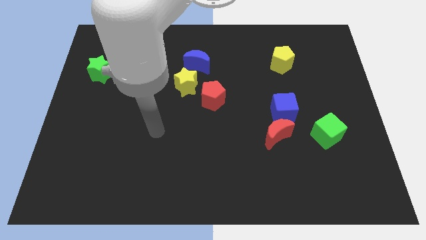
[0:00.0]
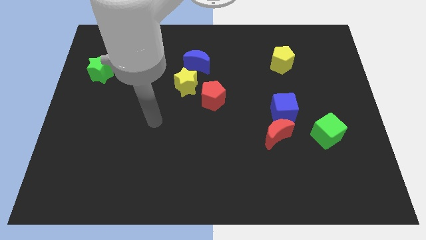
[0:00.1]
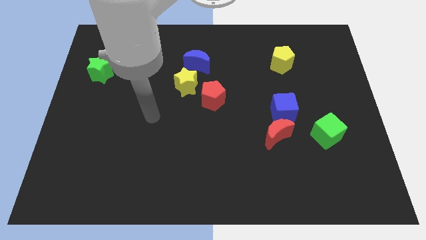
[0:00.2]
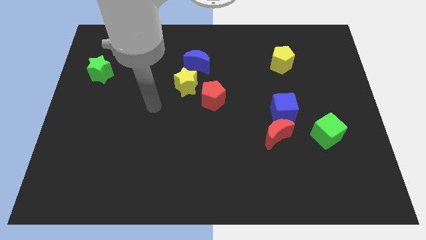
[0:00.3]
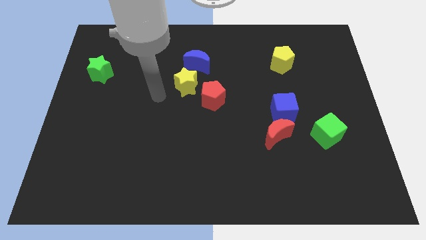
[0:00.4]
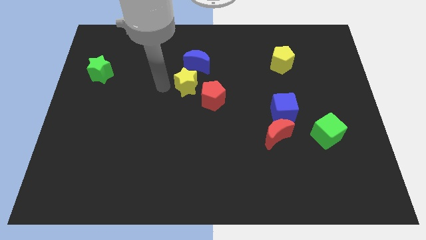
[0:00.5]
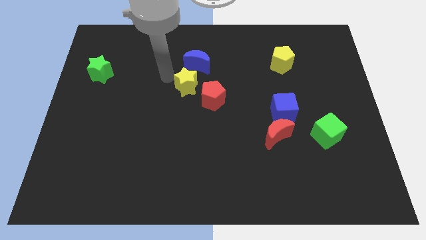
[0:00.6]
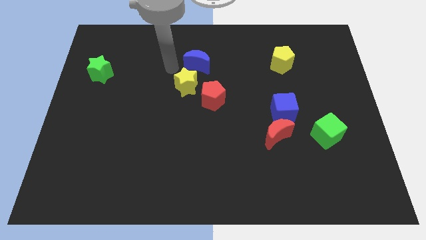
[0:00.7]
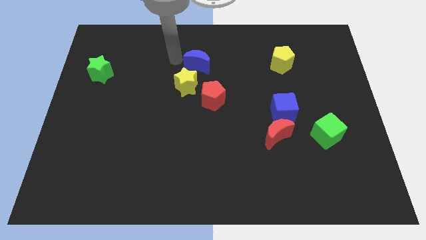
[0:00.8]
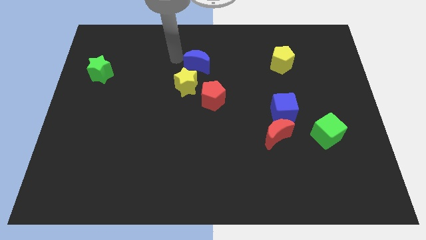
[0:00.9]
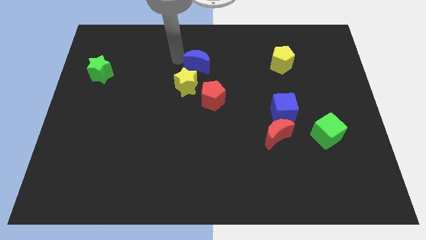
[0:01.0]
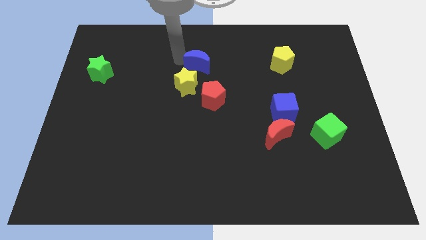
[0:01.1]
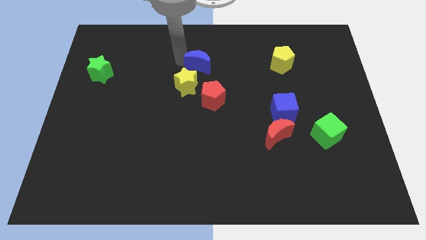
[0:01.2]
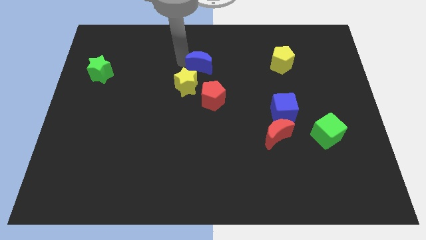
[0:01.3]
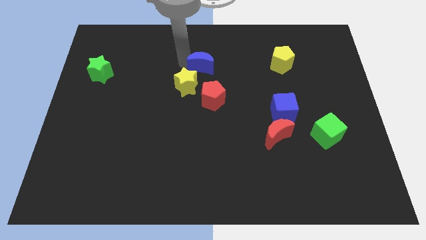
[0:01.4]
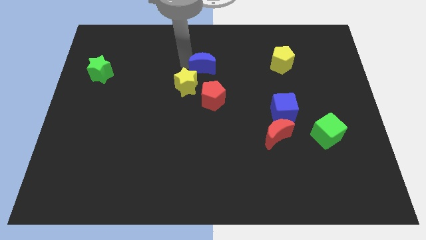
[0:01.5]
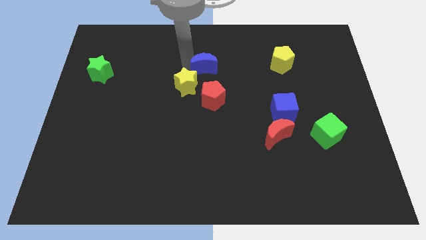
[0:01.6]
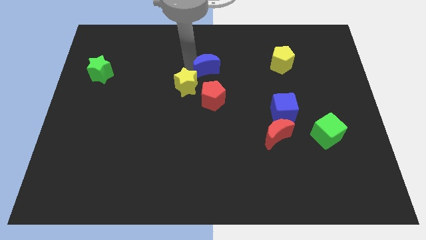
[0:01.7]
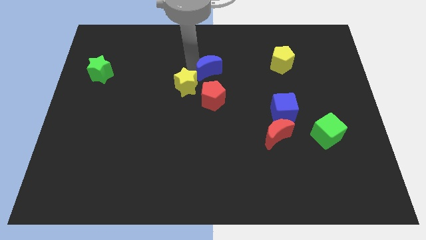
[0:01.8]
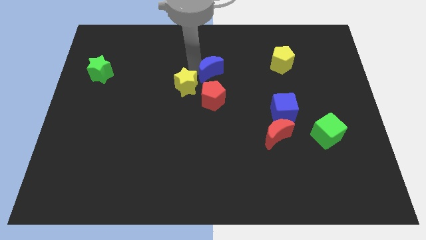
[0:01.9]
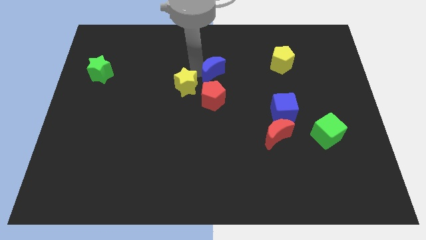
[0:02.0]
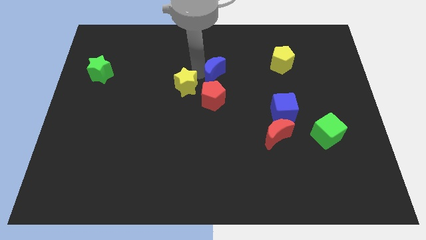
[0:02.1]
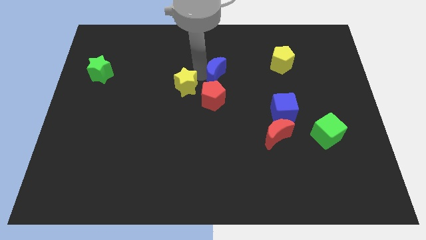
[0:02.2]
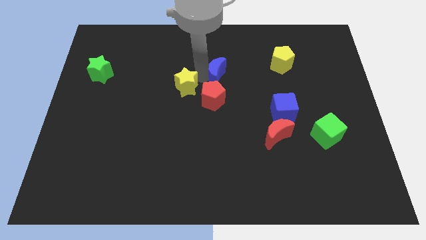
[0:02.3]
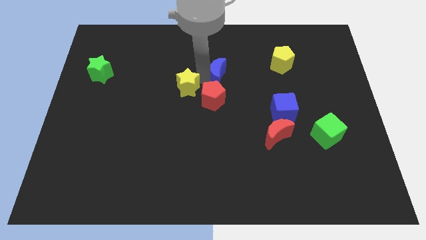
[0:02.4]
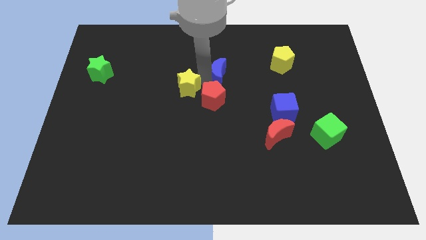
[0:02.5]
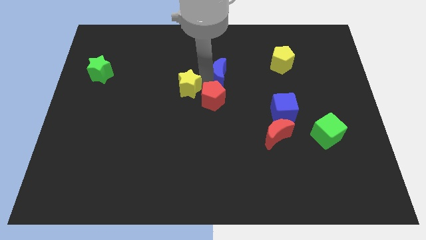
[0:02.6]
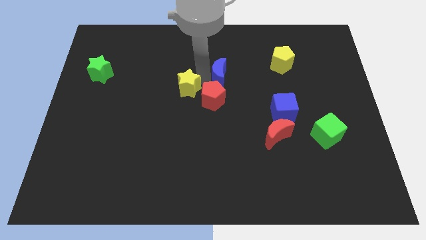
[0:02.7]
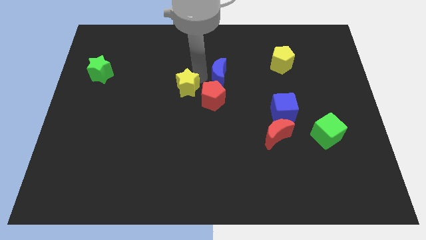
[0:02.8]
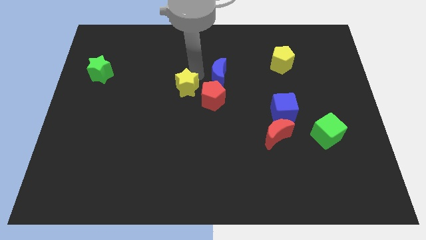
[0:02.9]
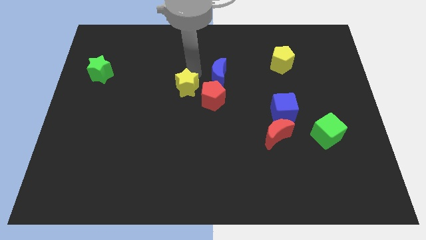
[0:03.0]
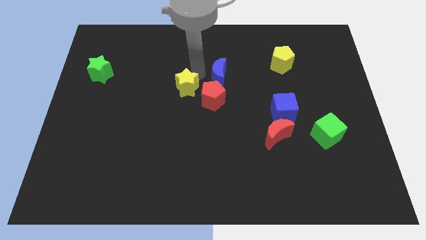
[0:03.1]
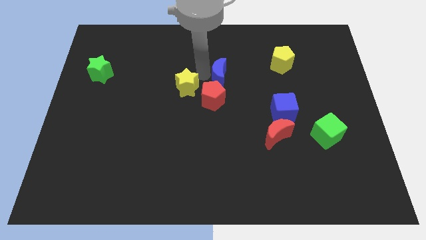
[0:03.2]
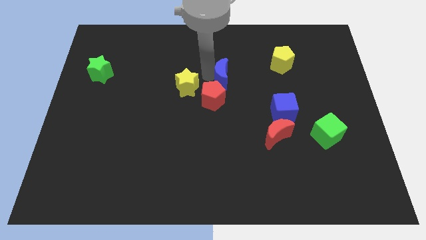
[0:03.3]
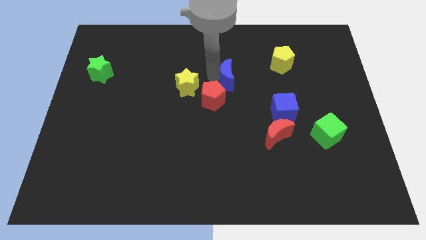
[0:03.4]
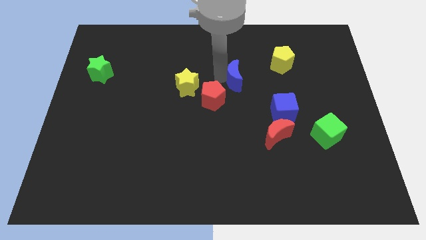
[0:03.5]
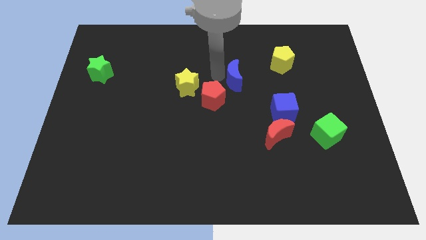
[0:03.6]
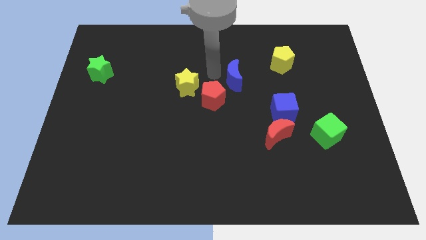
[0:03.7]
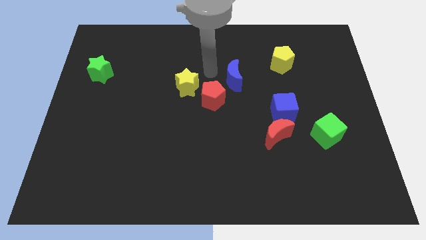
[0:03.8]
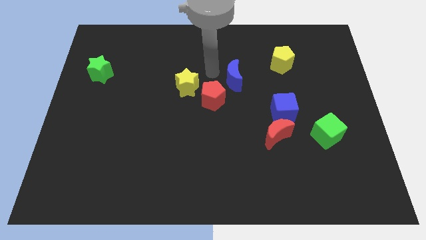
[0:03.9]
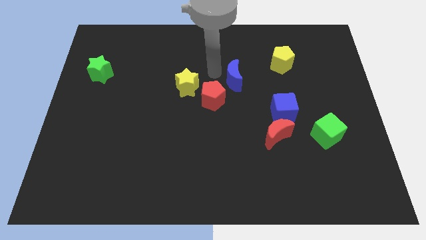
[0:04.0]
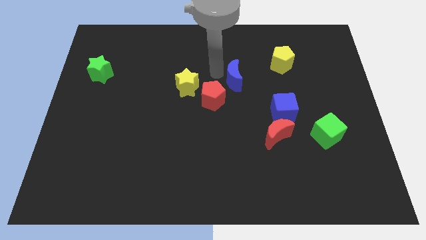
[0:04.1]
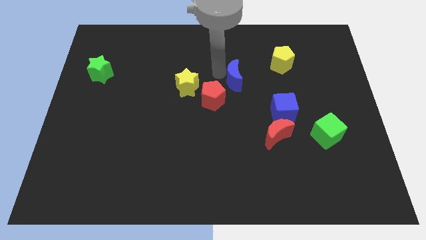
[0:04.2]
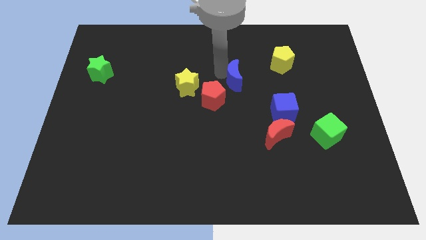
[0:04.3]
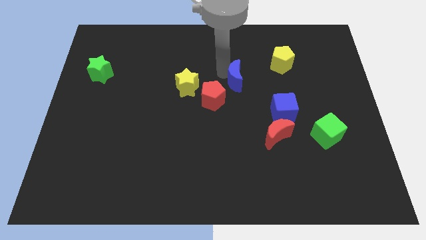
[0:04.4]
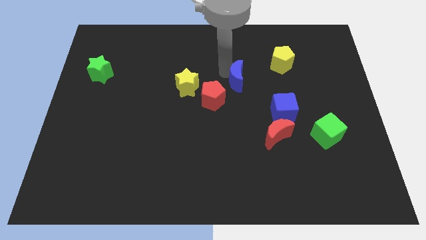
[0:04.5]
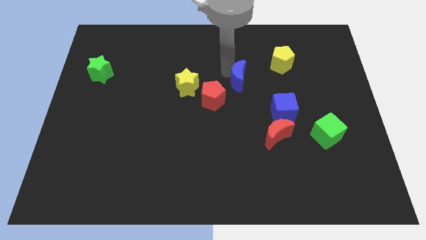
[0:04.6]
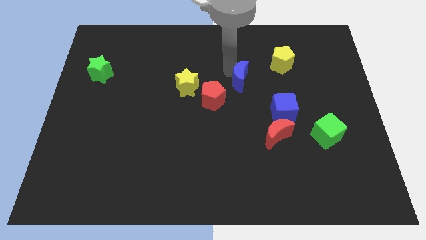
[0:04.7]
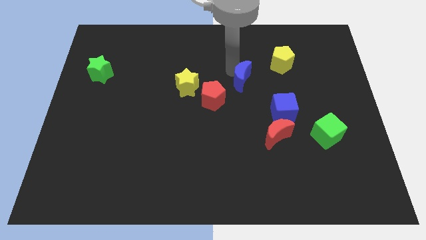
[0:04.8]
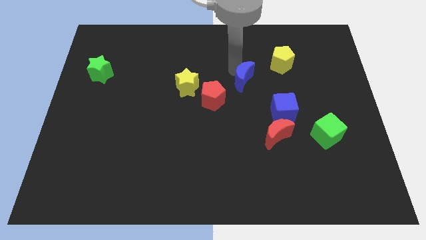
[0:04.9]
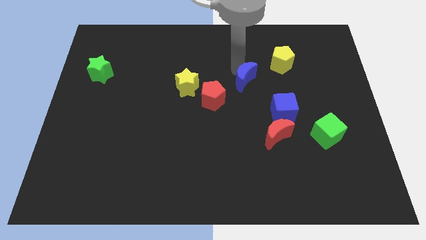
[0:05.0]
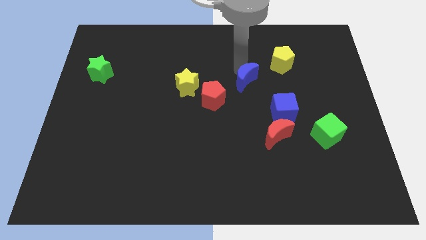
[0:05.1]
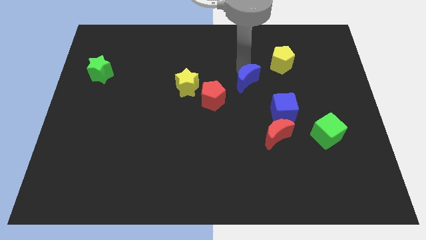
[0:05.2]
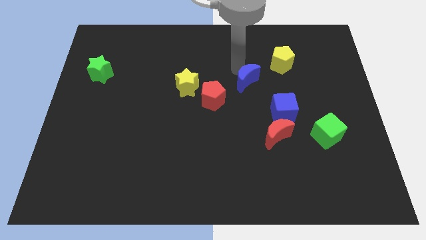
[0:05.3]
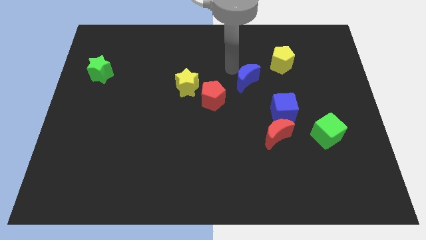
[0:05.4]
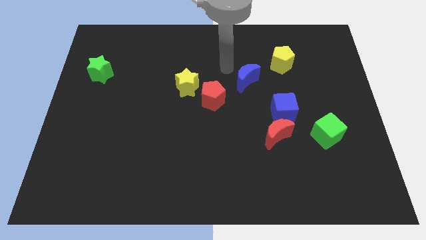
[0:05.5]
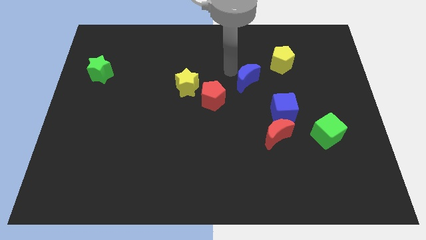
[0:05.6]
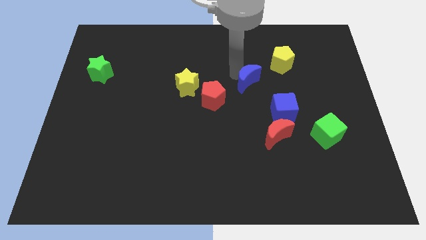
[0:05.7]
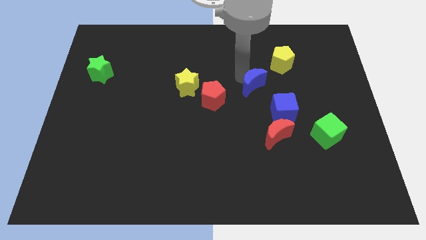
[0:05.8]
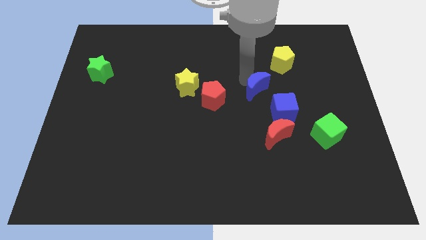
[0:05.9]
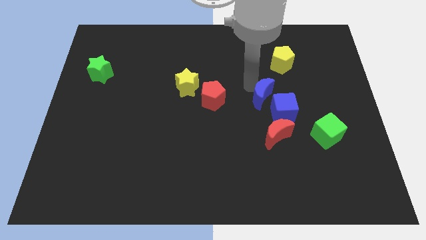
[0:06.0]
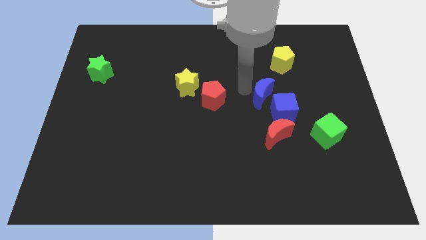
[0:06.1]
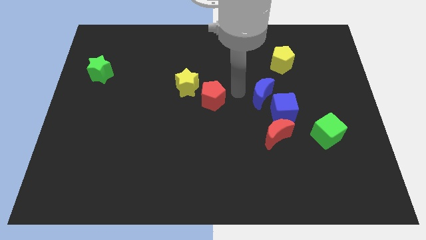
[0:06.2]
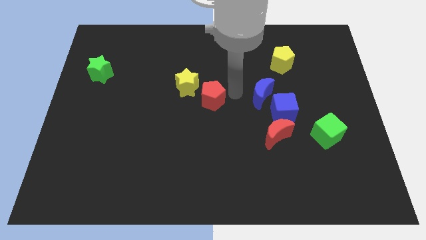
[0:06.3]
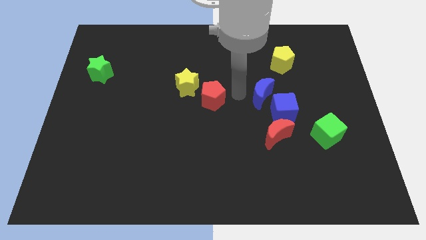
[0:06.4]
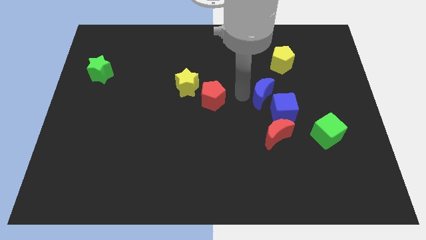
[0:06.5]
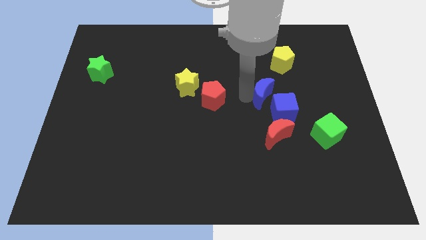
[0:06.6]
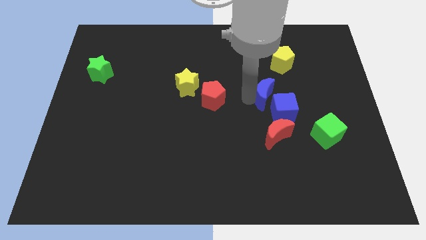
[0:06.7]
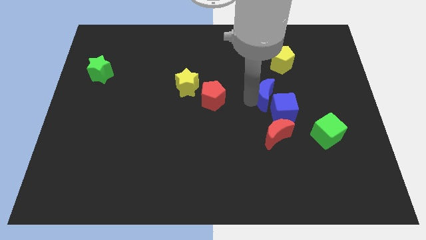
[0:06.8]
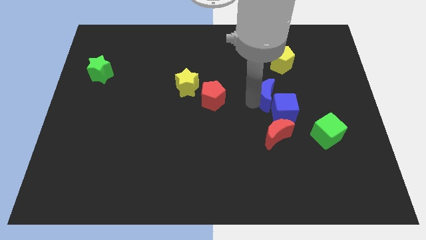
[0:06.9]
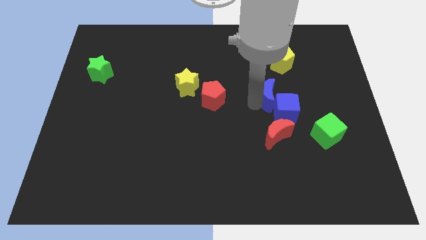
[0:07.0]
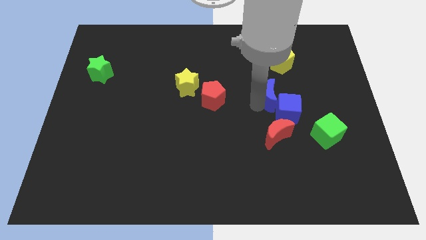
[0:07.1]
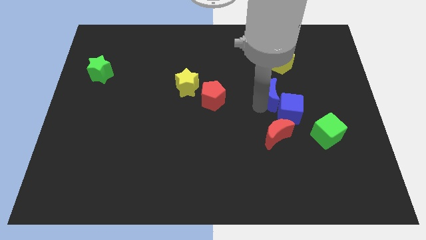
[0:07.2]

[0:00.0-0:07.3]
slide the blue moon down and then right

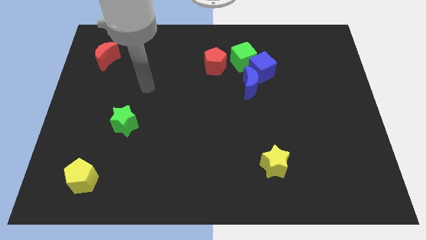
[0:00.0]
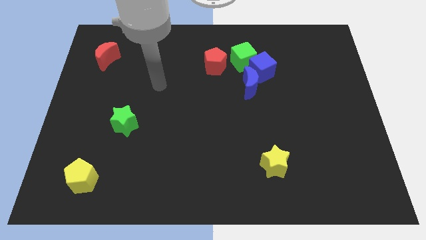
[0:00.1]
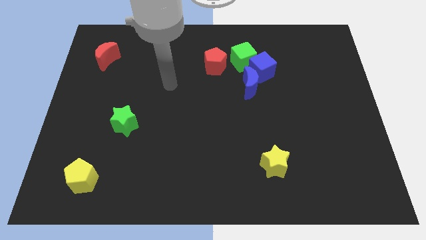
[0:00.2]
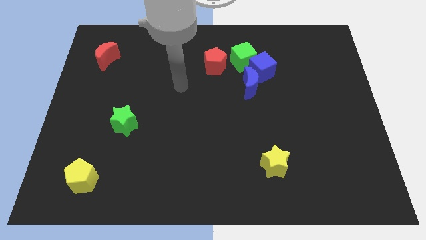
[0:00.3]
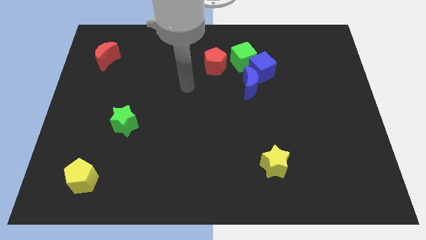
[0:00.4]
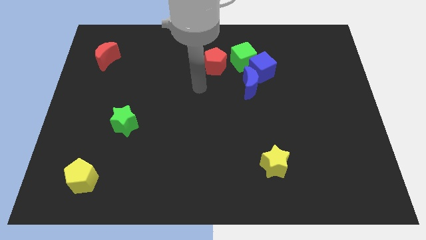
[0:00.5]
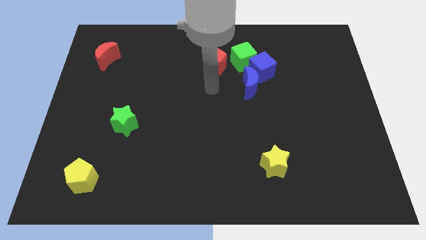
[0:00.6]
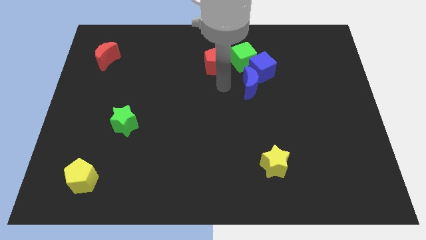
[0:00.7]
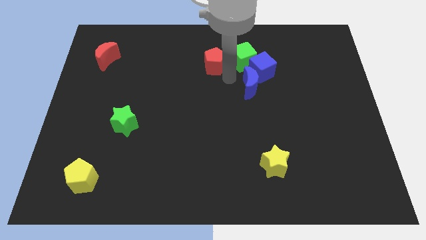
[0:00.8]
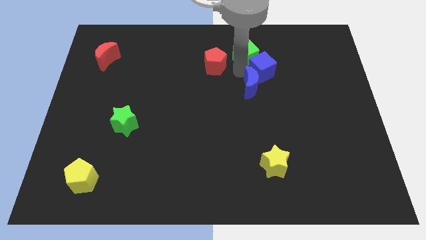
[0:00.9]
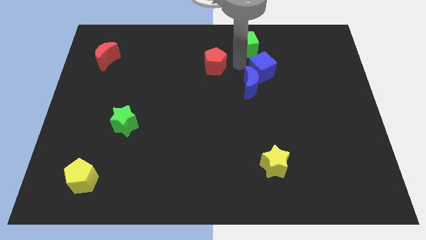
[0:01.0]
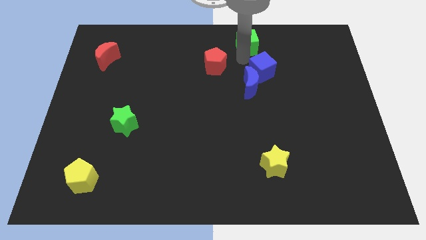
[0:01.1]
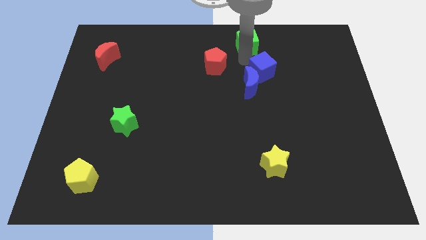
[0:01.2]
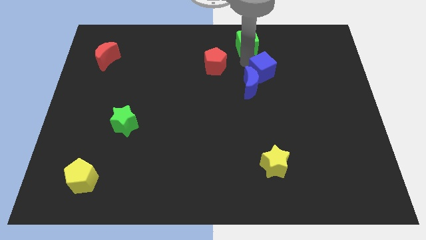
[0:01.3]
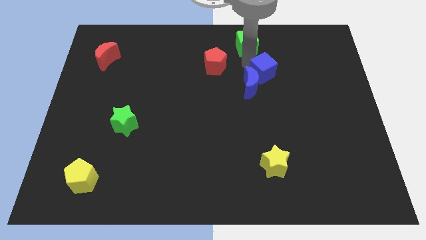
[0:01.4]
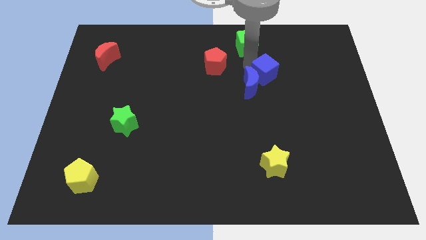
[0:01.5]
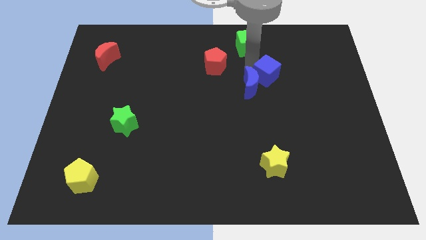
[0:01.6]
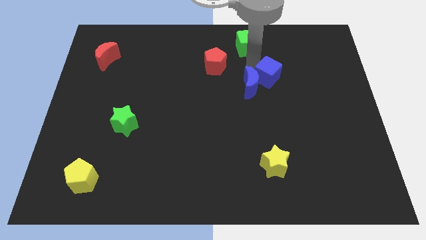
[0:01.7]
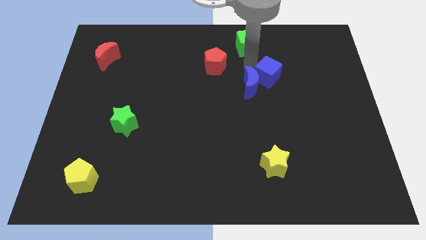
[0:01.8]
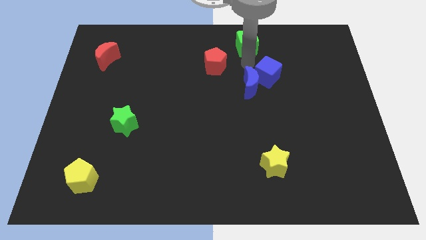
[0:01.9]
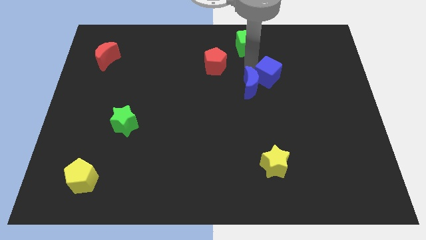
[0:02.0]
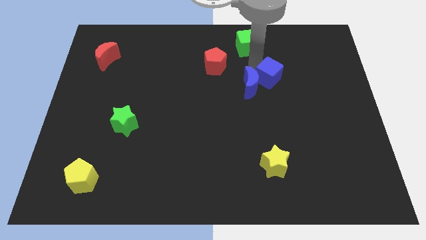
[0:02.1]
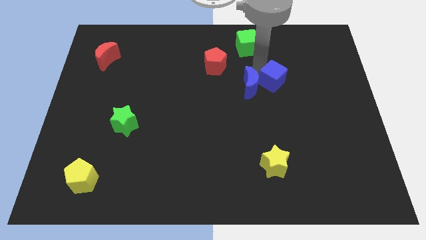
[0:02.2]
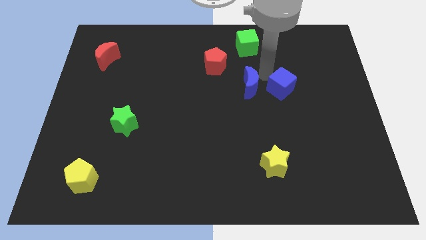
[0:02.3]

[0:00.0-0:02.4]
move the blue cube diagonally downwards and to the right a bit
